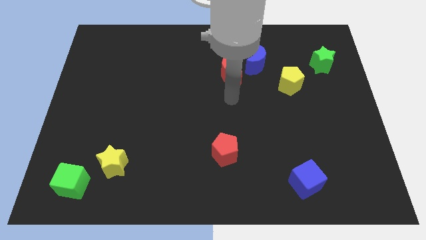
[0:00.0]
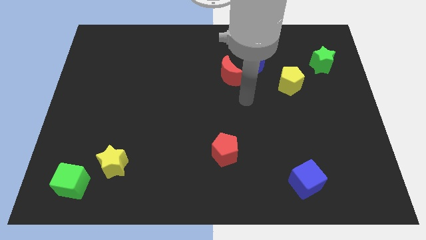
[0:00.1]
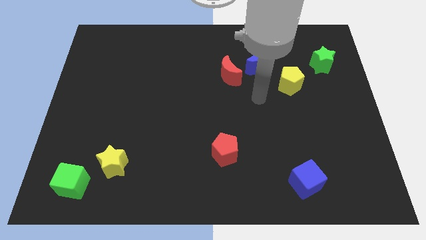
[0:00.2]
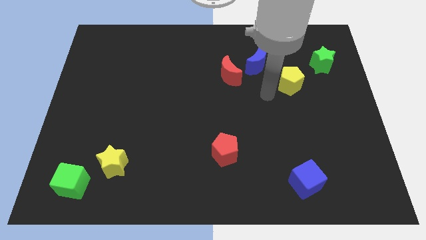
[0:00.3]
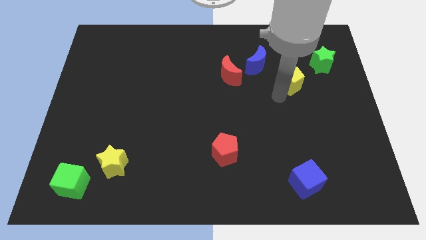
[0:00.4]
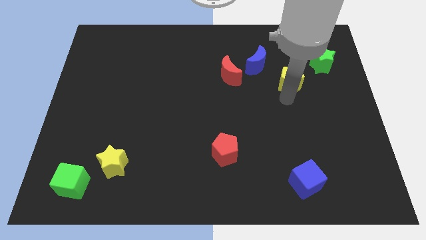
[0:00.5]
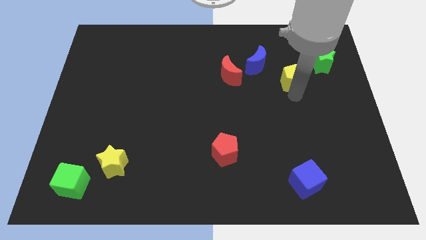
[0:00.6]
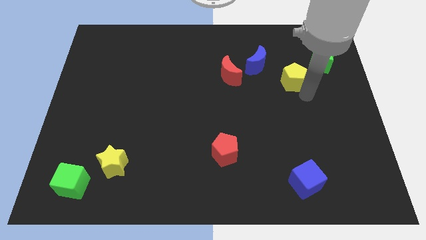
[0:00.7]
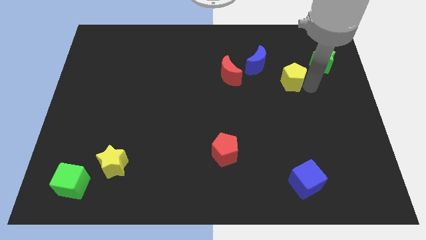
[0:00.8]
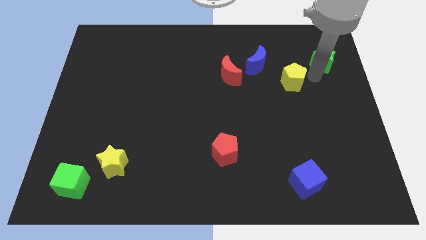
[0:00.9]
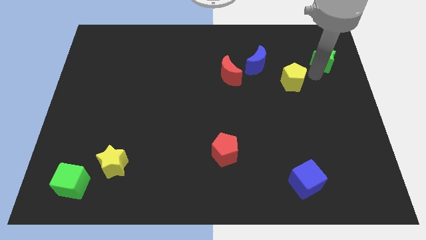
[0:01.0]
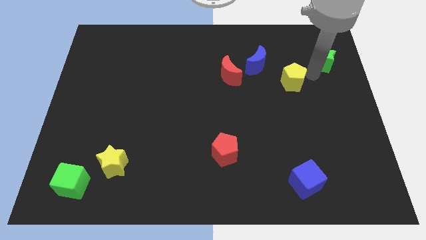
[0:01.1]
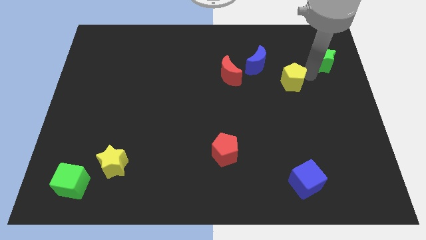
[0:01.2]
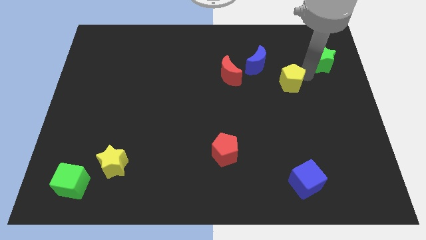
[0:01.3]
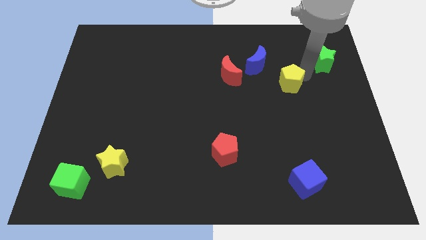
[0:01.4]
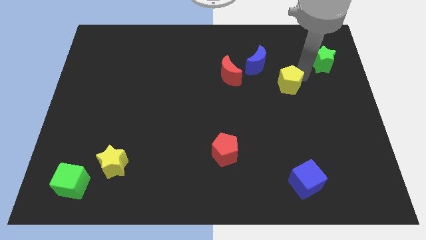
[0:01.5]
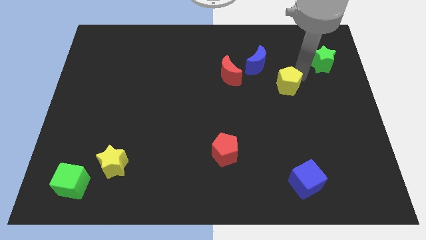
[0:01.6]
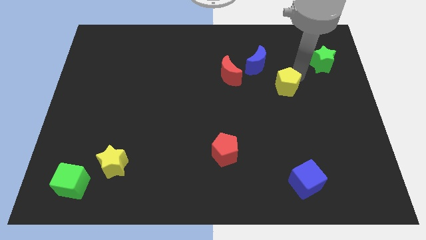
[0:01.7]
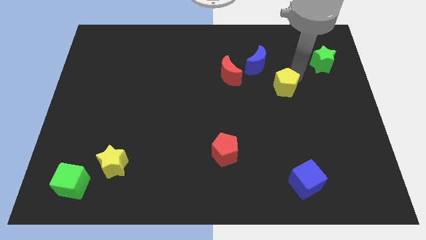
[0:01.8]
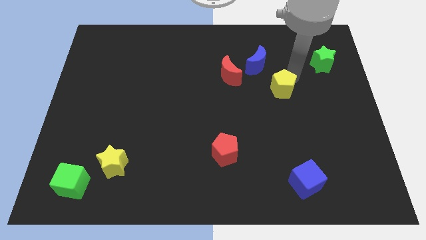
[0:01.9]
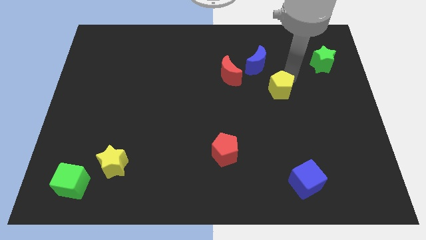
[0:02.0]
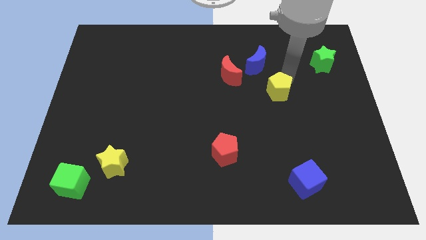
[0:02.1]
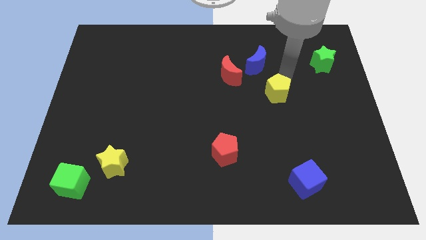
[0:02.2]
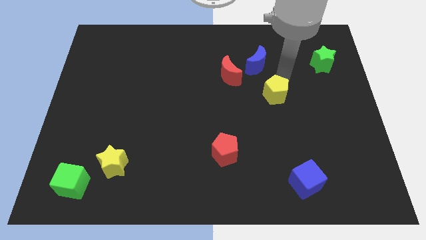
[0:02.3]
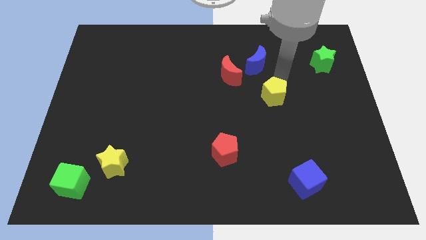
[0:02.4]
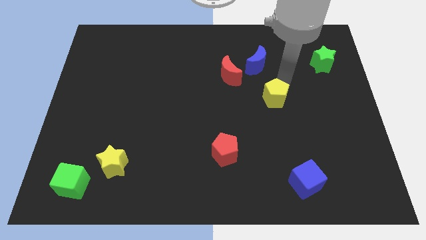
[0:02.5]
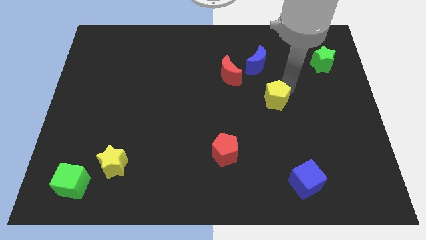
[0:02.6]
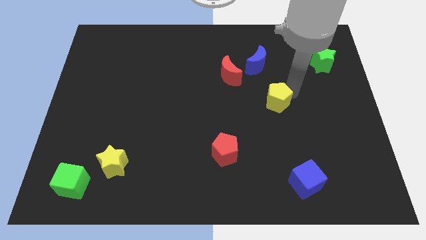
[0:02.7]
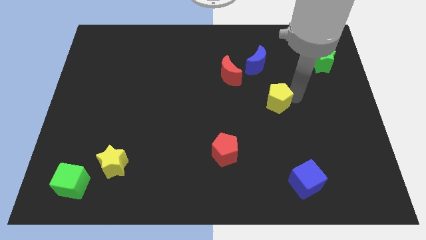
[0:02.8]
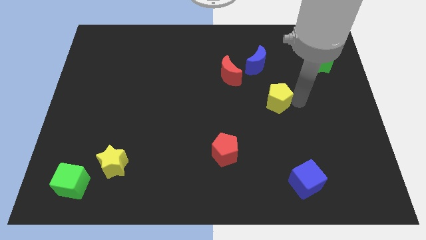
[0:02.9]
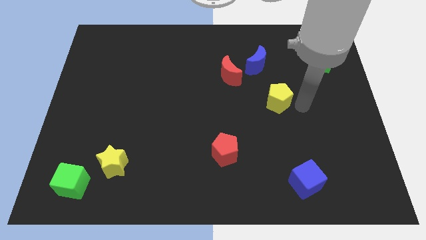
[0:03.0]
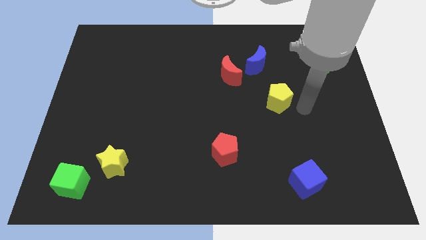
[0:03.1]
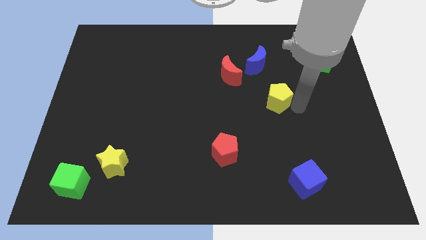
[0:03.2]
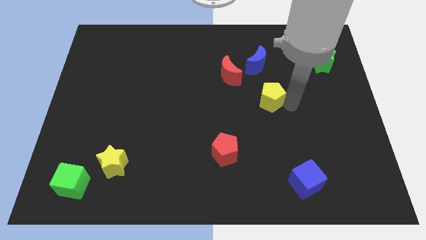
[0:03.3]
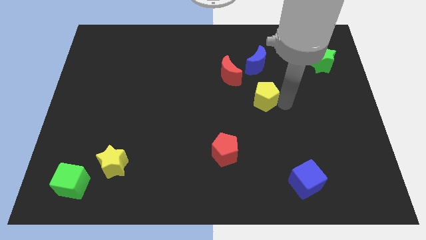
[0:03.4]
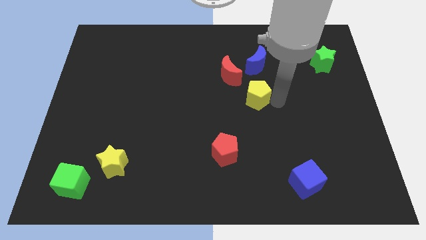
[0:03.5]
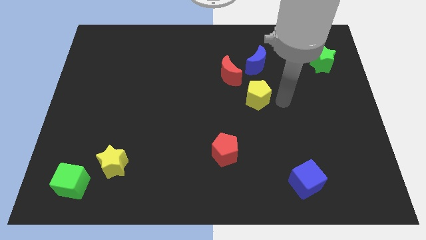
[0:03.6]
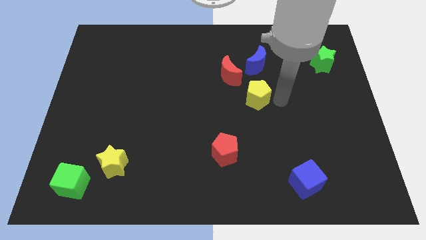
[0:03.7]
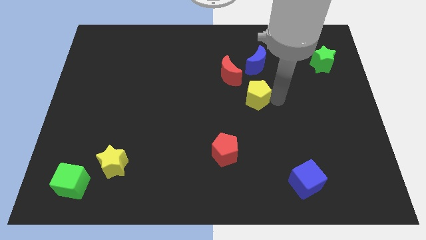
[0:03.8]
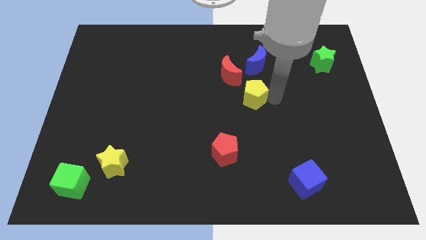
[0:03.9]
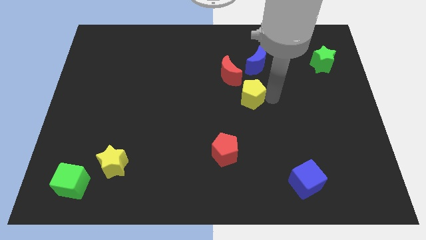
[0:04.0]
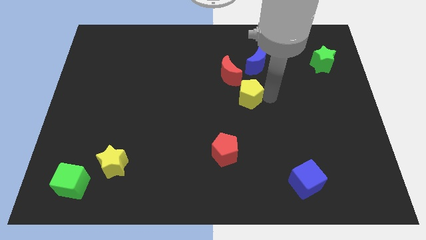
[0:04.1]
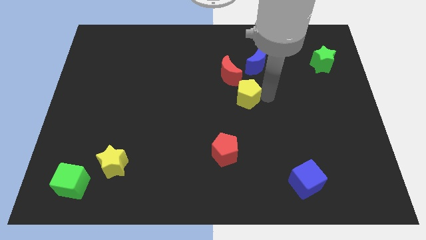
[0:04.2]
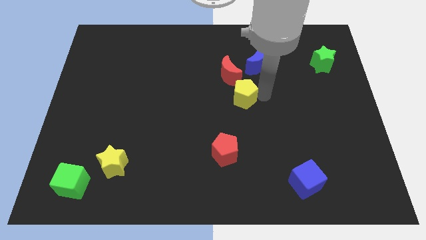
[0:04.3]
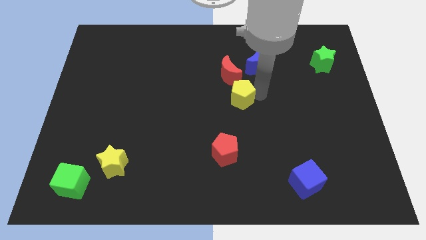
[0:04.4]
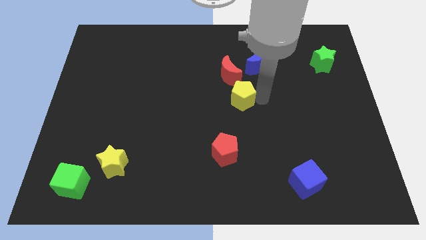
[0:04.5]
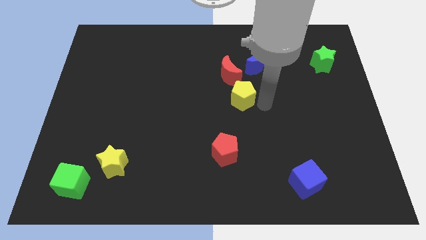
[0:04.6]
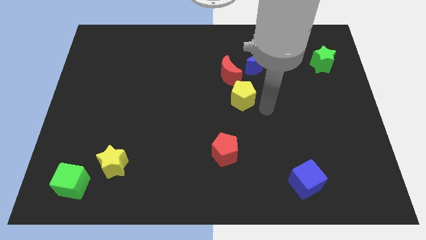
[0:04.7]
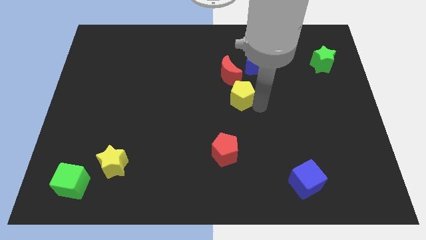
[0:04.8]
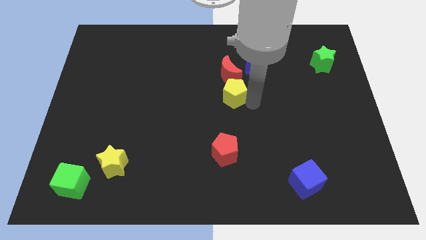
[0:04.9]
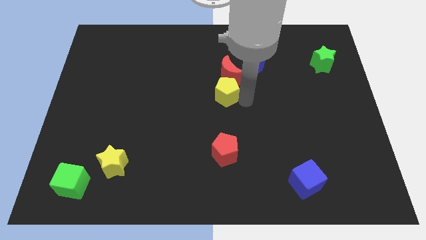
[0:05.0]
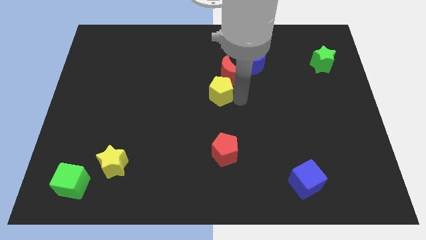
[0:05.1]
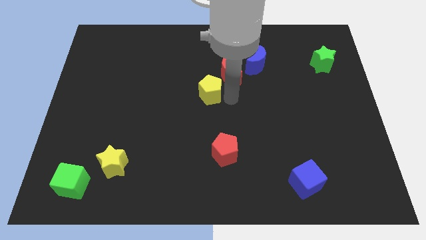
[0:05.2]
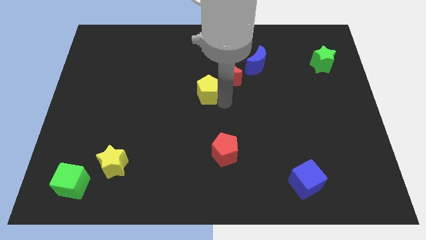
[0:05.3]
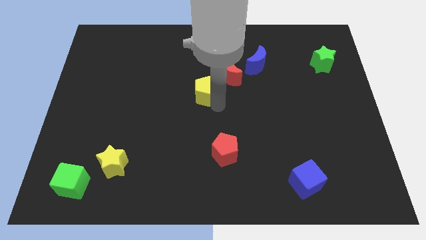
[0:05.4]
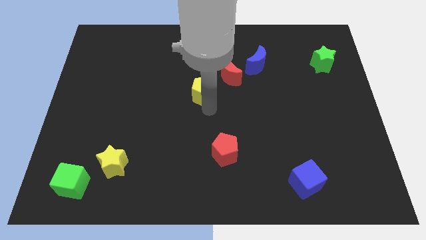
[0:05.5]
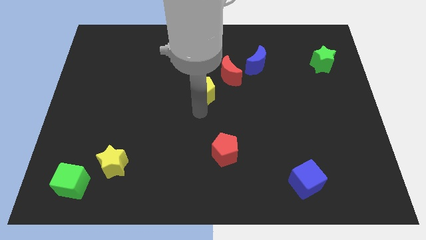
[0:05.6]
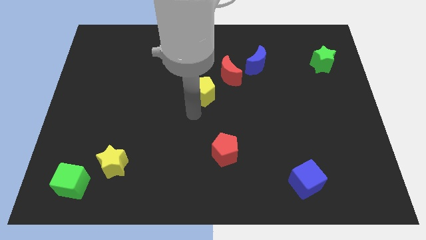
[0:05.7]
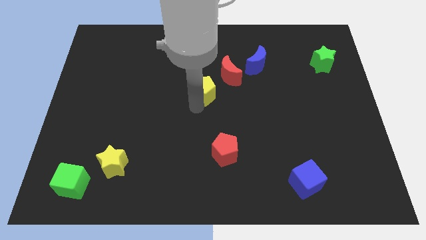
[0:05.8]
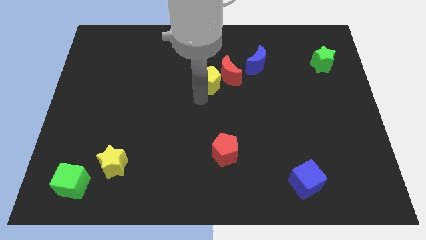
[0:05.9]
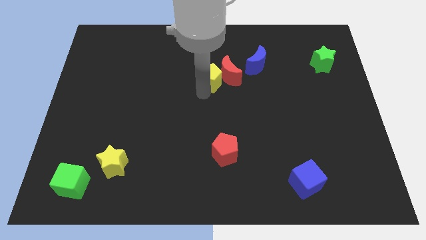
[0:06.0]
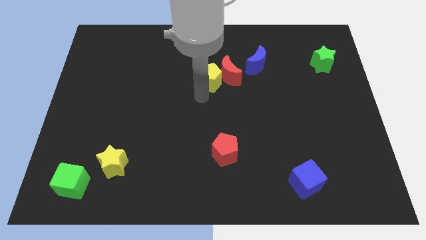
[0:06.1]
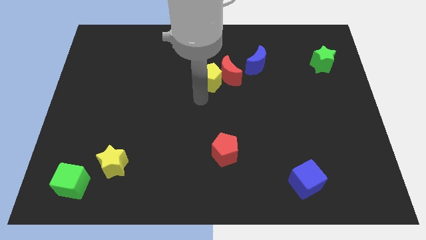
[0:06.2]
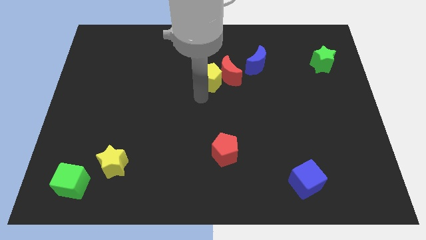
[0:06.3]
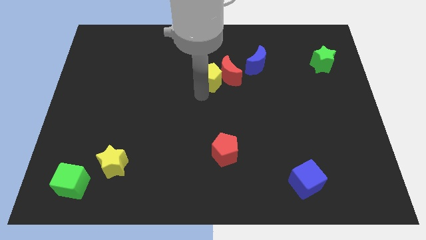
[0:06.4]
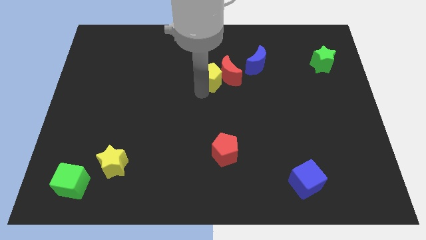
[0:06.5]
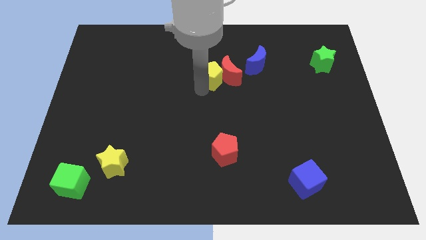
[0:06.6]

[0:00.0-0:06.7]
move the yellow pentagon to the left of the blue moon

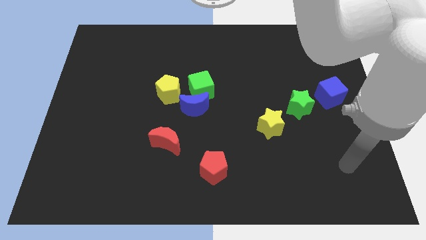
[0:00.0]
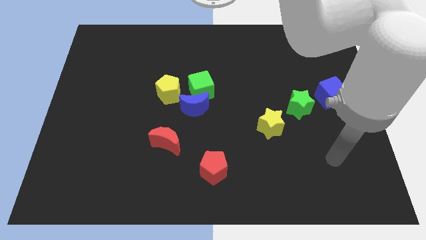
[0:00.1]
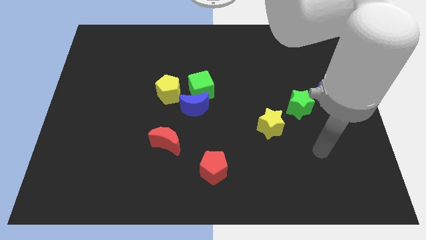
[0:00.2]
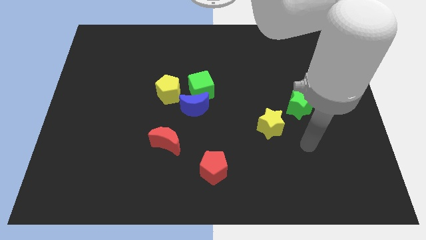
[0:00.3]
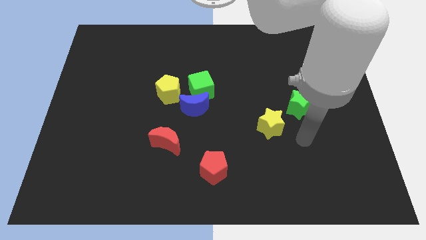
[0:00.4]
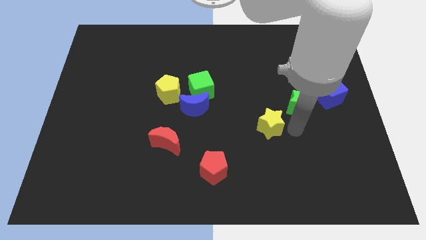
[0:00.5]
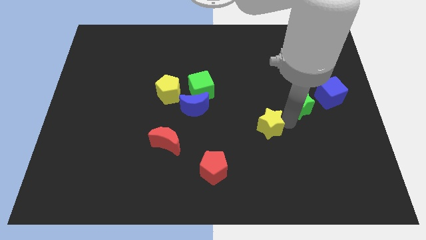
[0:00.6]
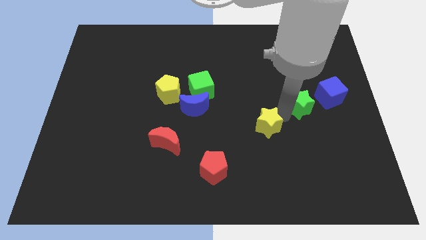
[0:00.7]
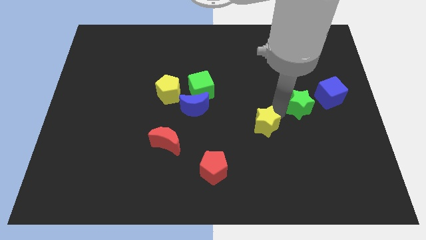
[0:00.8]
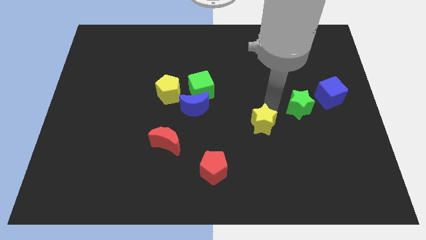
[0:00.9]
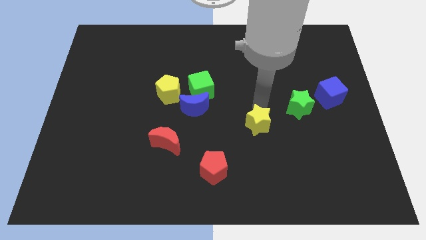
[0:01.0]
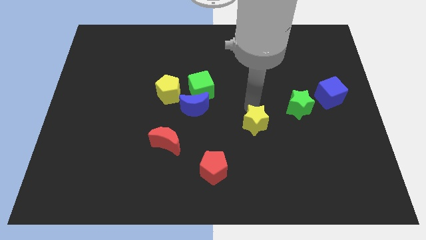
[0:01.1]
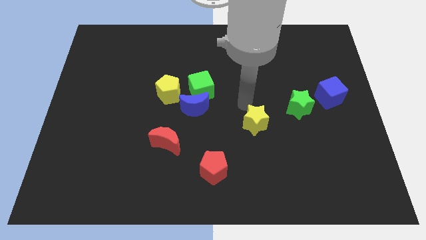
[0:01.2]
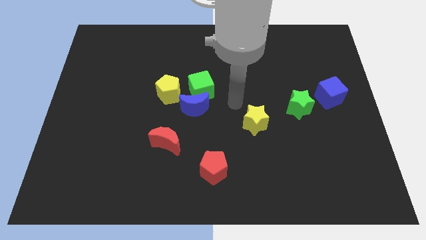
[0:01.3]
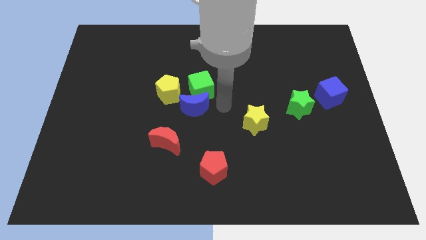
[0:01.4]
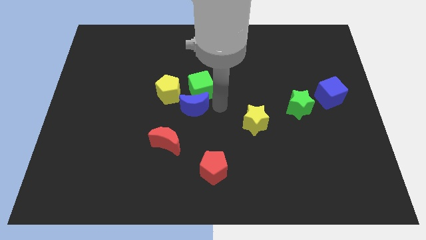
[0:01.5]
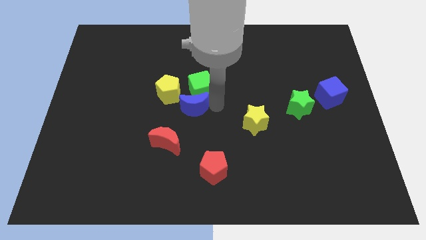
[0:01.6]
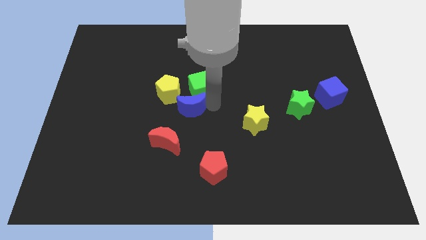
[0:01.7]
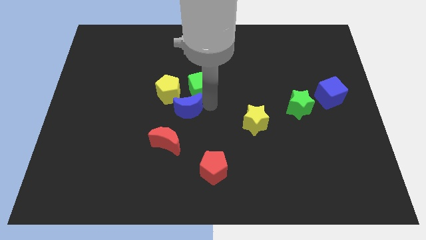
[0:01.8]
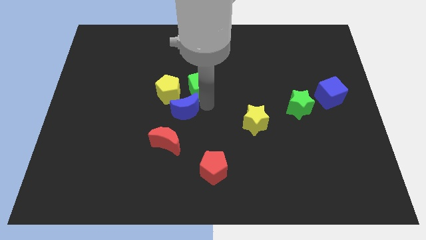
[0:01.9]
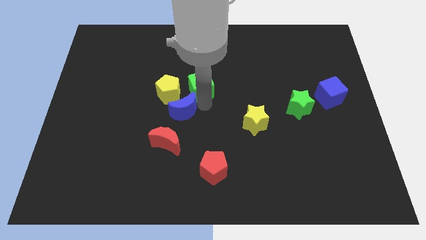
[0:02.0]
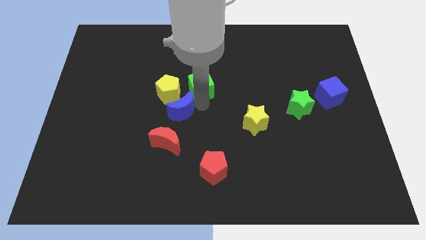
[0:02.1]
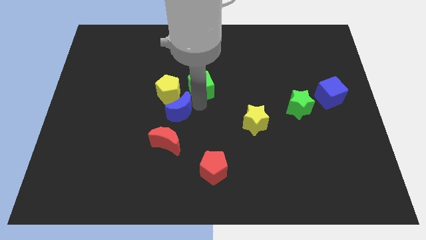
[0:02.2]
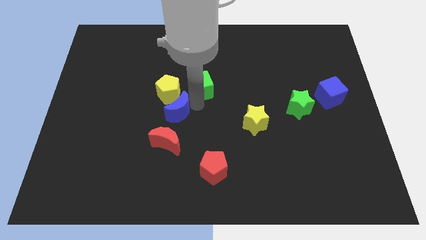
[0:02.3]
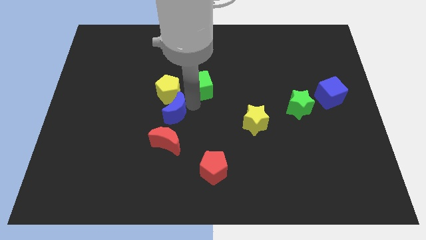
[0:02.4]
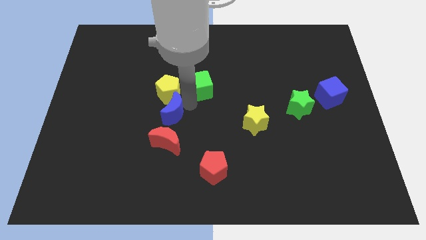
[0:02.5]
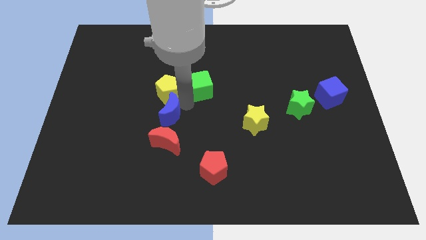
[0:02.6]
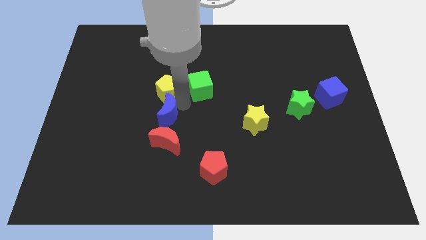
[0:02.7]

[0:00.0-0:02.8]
put the blue moon to the bottom left side of the yellow pentagon
